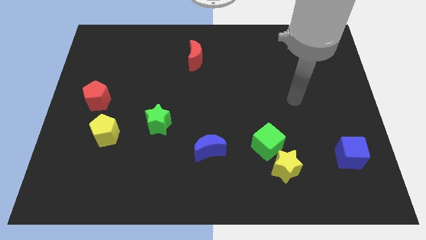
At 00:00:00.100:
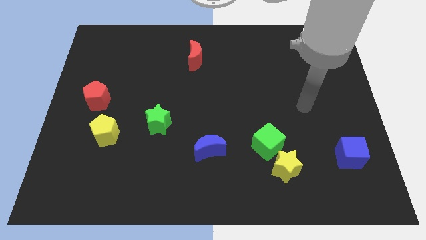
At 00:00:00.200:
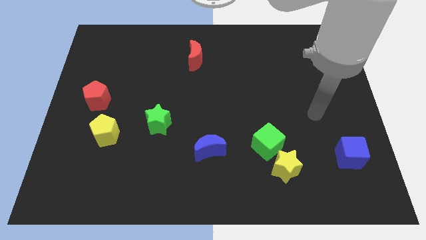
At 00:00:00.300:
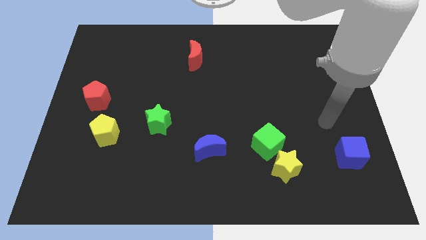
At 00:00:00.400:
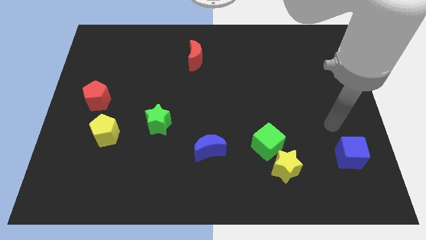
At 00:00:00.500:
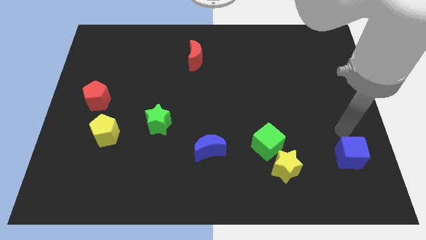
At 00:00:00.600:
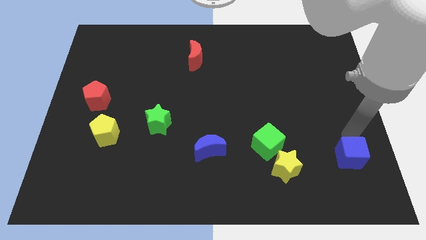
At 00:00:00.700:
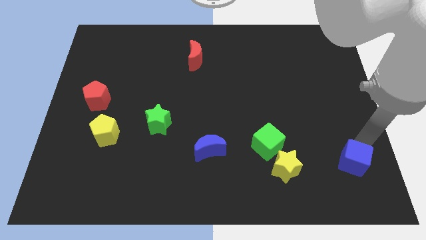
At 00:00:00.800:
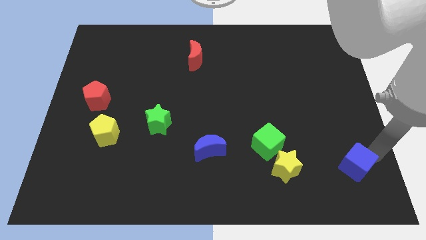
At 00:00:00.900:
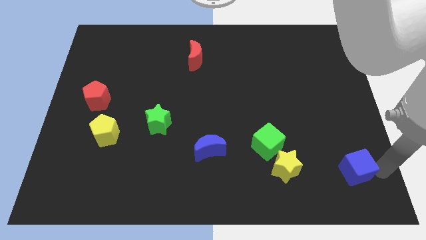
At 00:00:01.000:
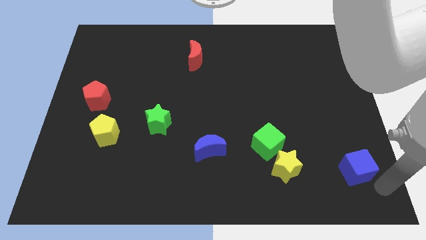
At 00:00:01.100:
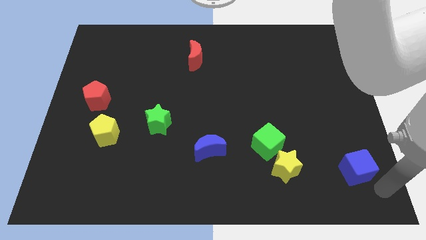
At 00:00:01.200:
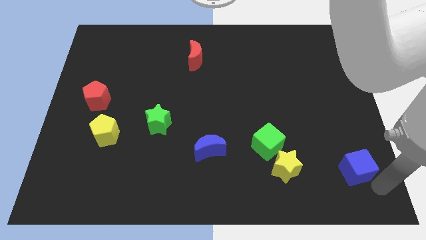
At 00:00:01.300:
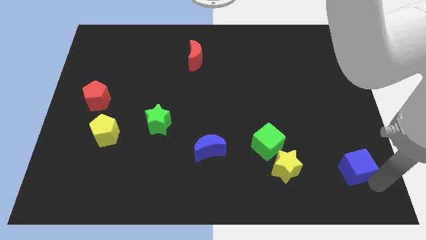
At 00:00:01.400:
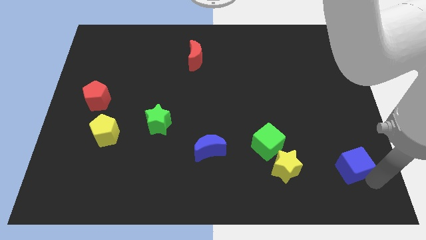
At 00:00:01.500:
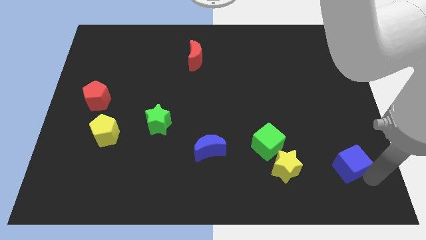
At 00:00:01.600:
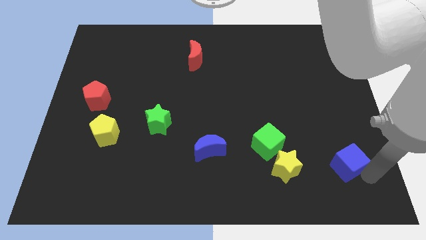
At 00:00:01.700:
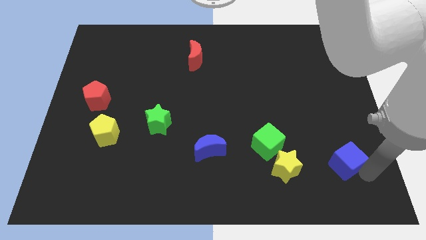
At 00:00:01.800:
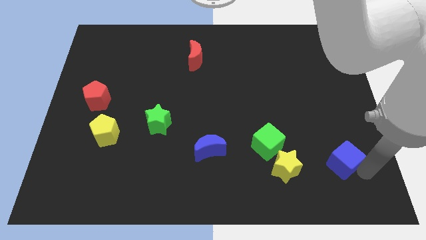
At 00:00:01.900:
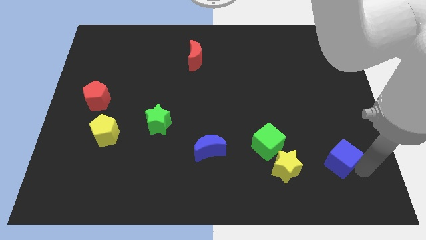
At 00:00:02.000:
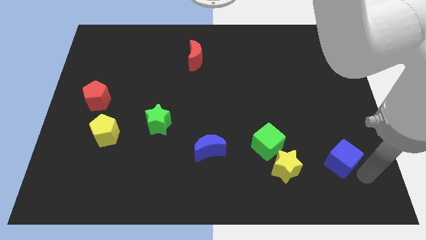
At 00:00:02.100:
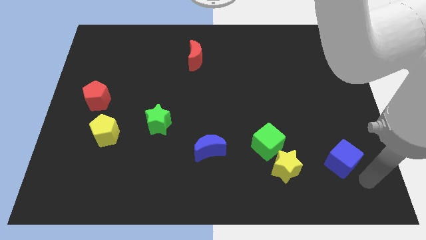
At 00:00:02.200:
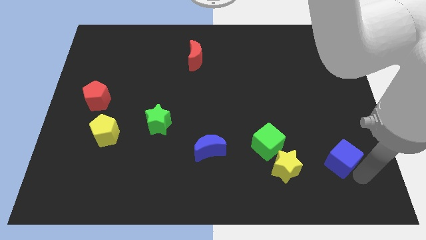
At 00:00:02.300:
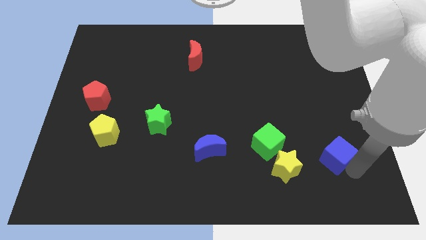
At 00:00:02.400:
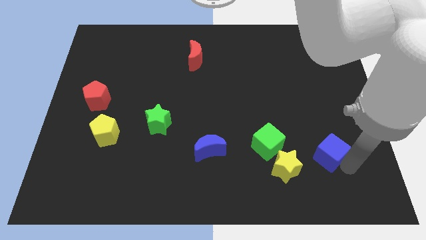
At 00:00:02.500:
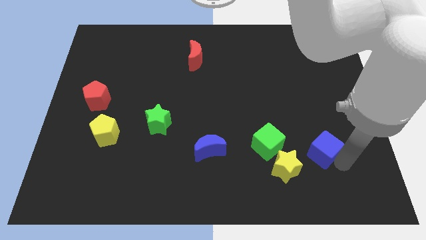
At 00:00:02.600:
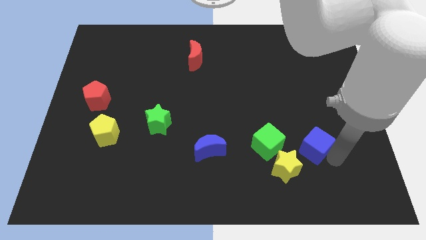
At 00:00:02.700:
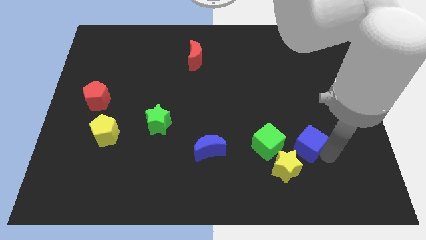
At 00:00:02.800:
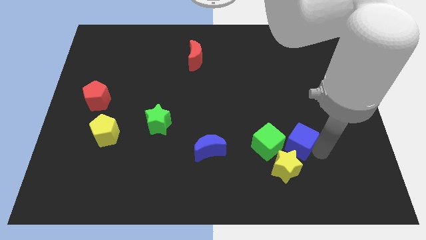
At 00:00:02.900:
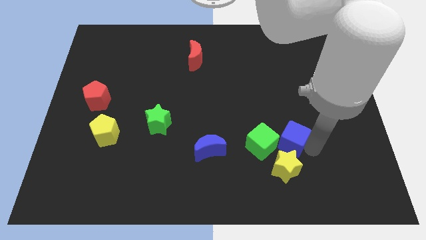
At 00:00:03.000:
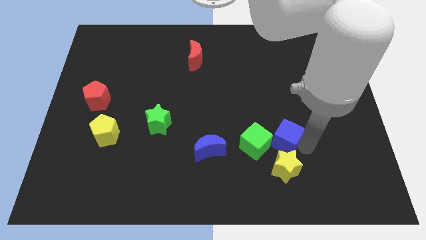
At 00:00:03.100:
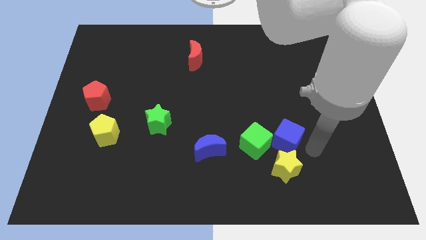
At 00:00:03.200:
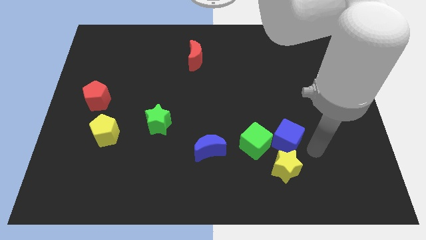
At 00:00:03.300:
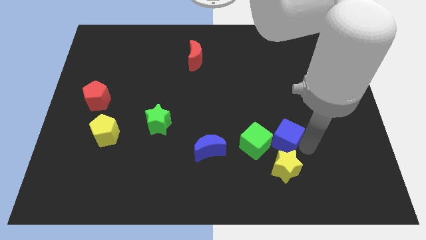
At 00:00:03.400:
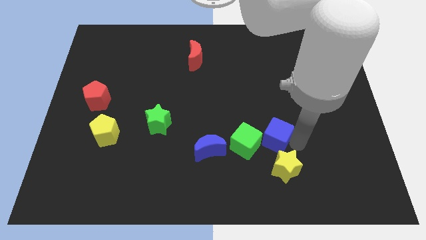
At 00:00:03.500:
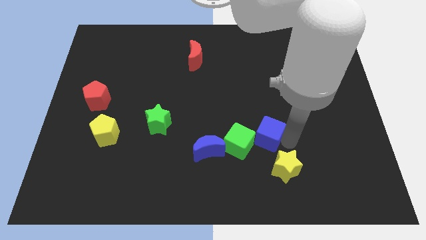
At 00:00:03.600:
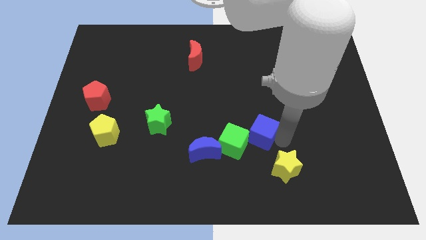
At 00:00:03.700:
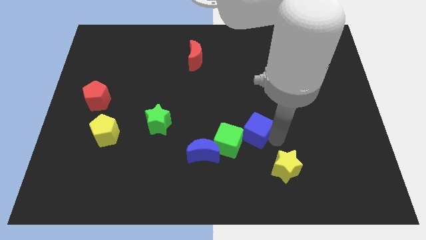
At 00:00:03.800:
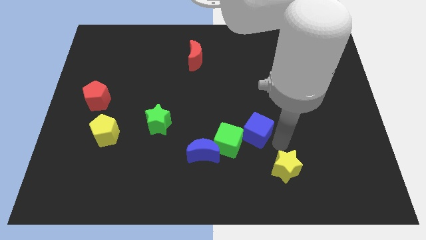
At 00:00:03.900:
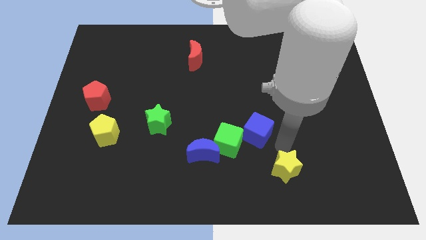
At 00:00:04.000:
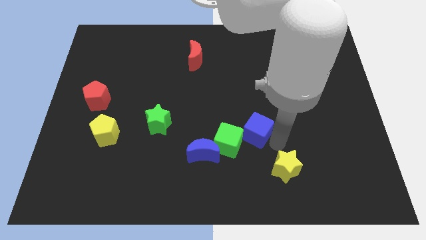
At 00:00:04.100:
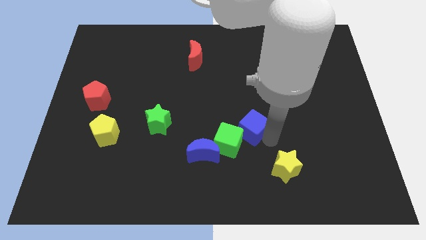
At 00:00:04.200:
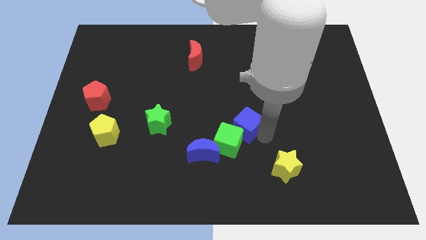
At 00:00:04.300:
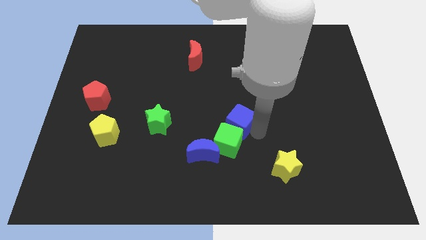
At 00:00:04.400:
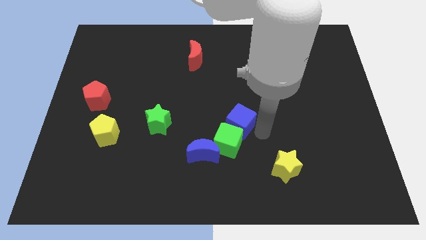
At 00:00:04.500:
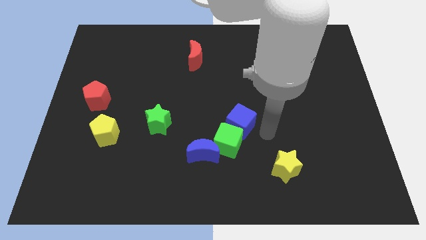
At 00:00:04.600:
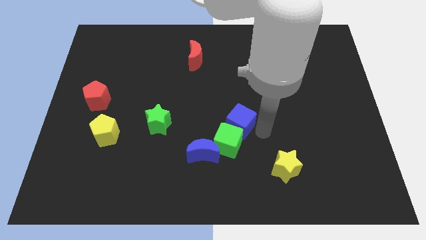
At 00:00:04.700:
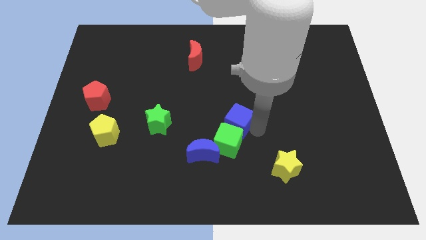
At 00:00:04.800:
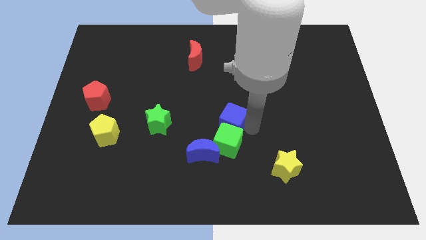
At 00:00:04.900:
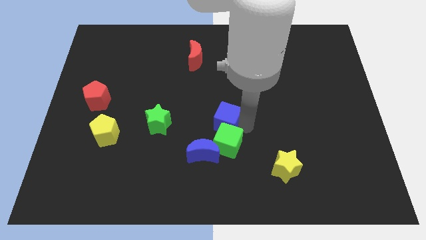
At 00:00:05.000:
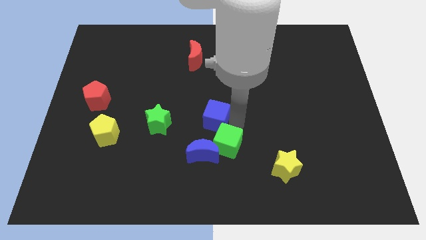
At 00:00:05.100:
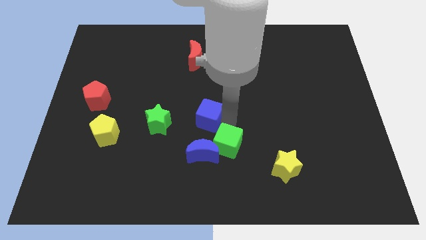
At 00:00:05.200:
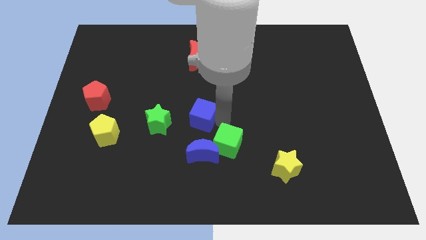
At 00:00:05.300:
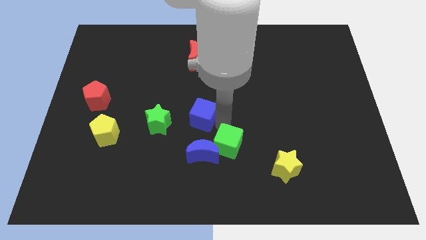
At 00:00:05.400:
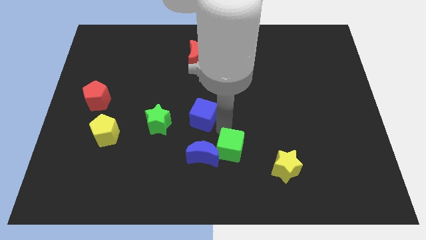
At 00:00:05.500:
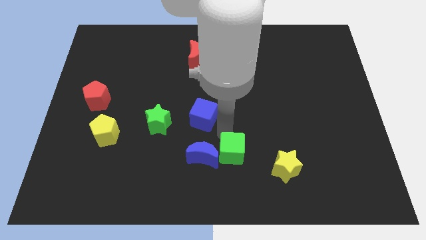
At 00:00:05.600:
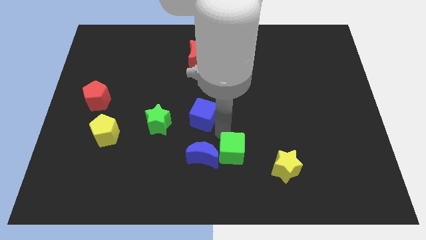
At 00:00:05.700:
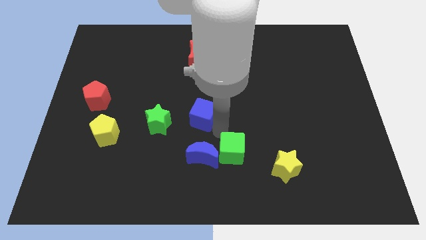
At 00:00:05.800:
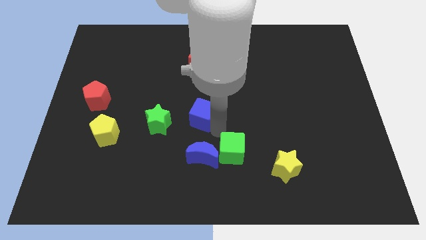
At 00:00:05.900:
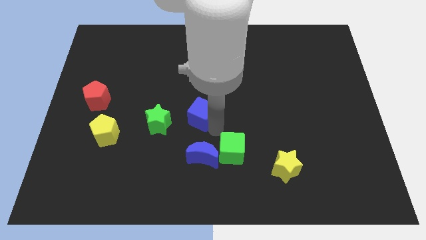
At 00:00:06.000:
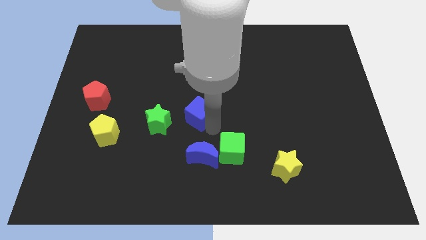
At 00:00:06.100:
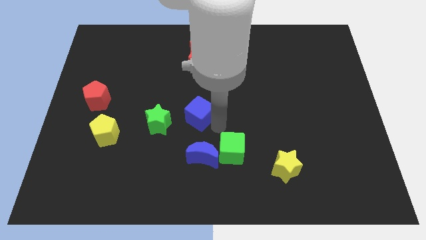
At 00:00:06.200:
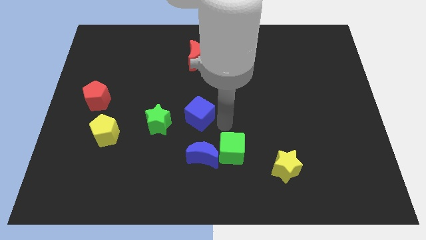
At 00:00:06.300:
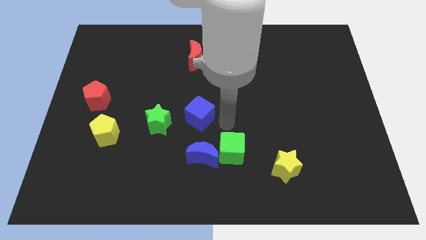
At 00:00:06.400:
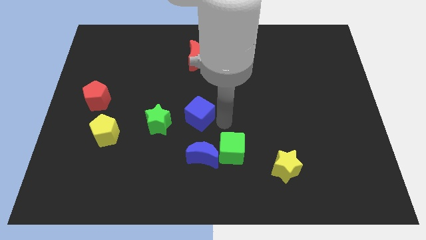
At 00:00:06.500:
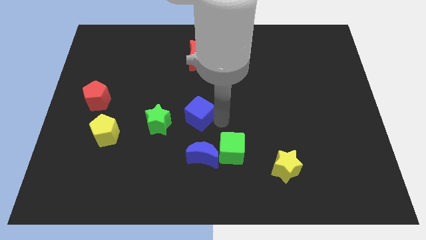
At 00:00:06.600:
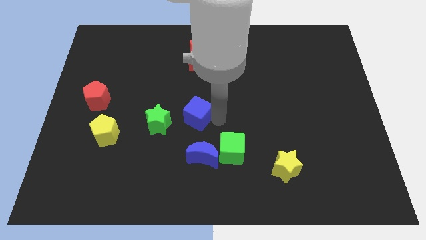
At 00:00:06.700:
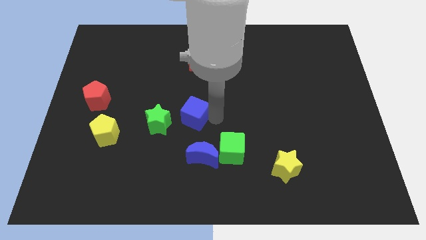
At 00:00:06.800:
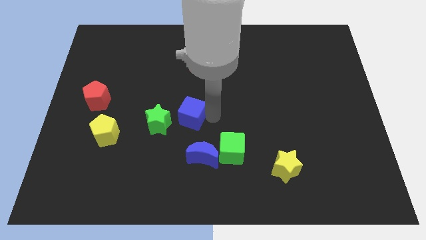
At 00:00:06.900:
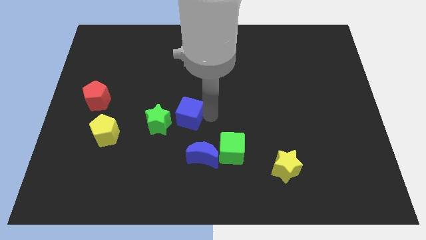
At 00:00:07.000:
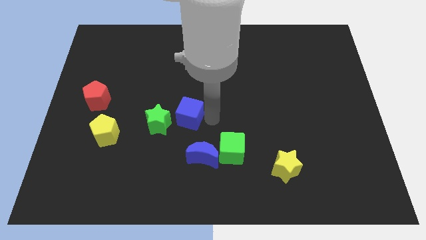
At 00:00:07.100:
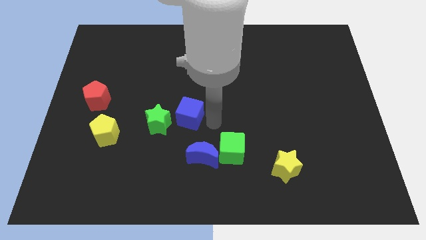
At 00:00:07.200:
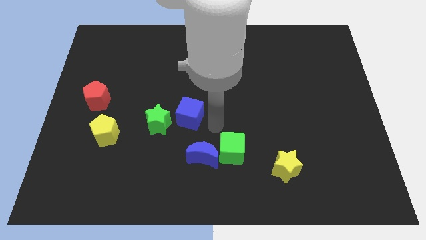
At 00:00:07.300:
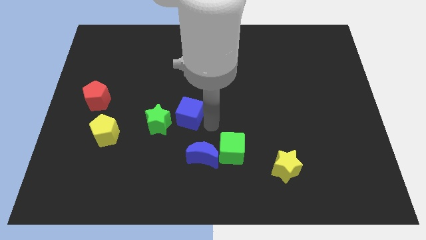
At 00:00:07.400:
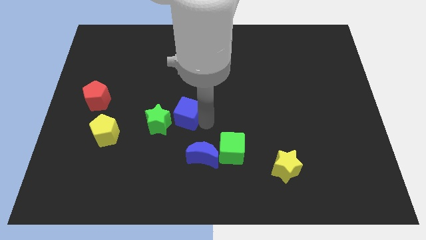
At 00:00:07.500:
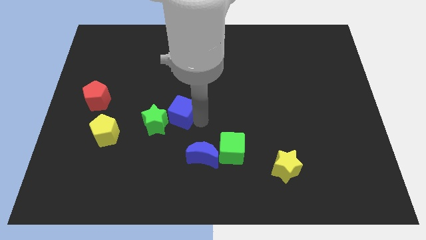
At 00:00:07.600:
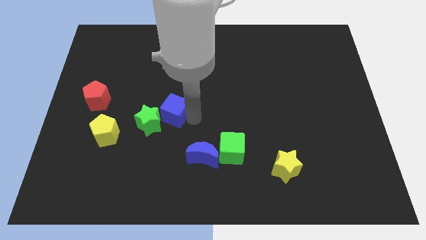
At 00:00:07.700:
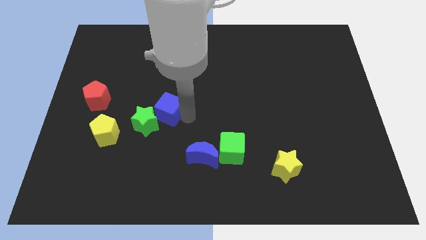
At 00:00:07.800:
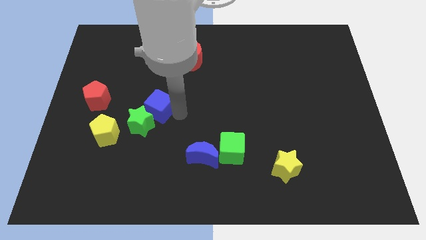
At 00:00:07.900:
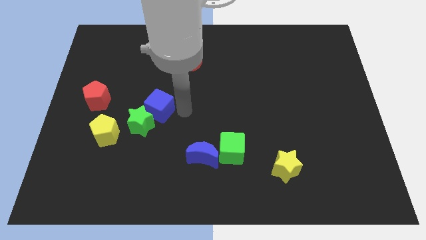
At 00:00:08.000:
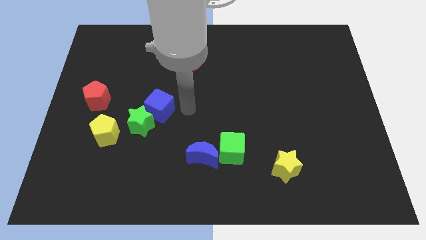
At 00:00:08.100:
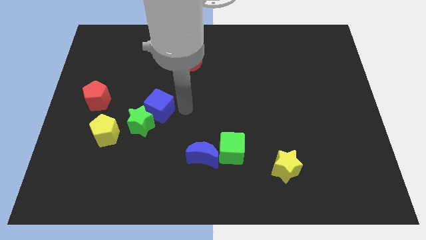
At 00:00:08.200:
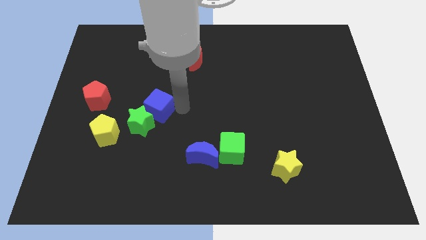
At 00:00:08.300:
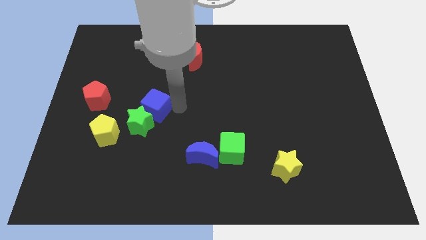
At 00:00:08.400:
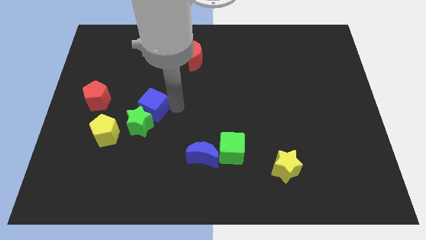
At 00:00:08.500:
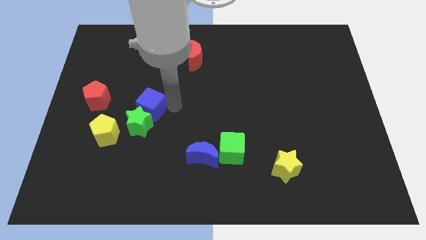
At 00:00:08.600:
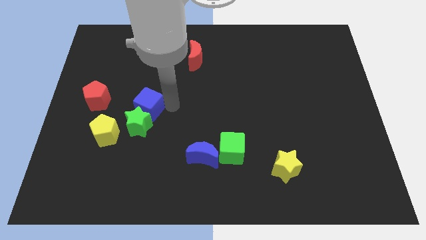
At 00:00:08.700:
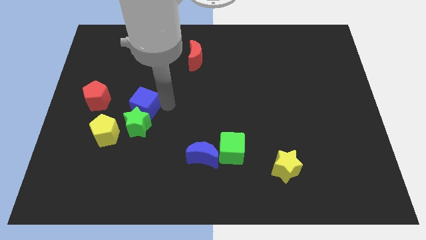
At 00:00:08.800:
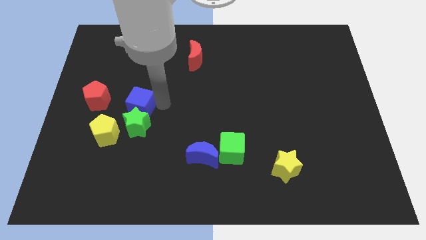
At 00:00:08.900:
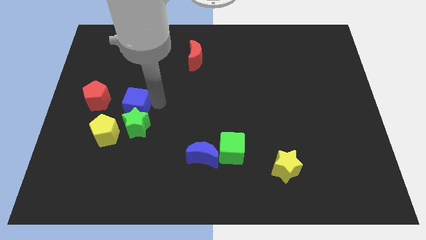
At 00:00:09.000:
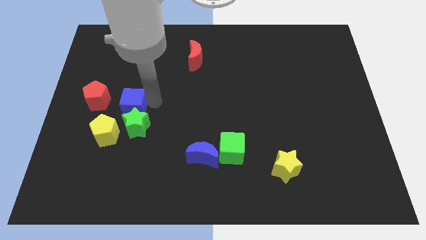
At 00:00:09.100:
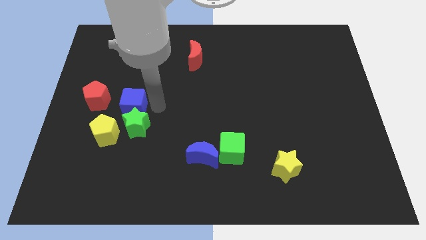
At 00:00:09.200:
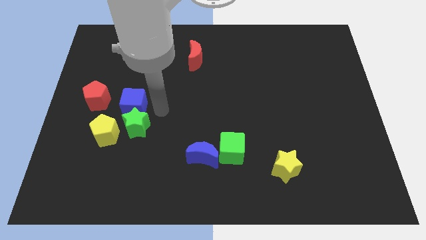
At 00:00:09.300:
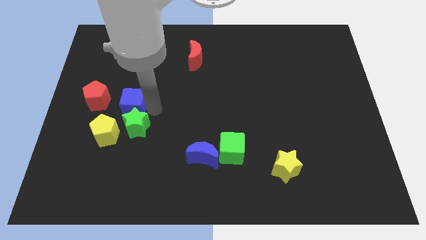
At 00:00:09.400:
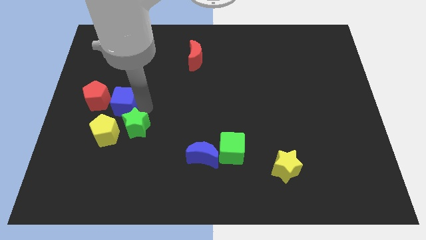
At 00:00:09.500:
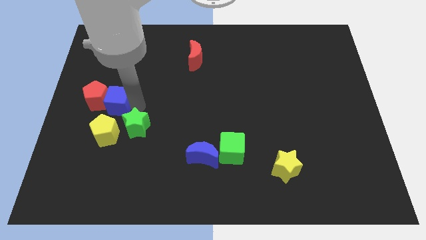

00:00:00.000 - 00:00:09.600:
push the blue cube towards the red pentagon
